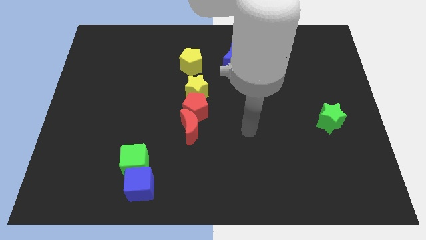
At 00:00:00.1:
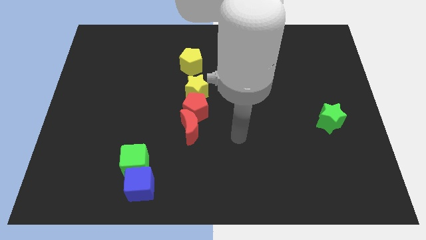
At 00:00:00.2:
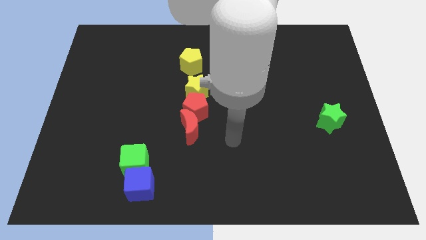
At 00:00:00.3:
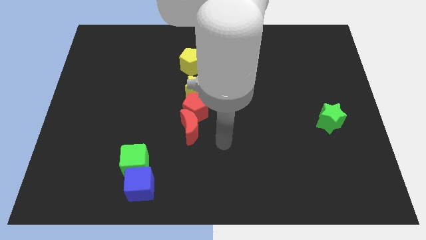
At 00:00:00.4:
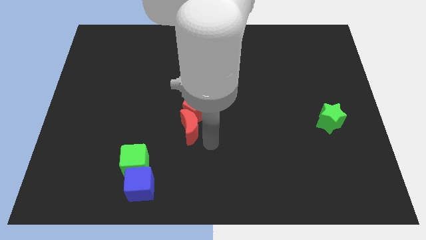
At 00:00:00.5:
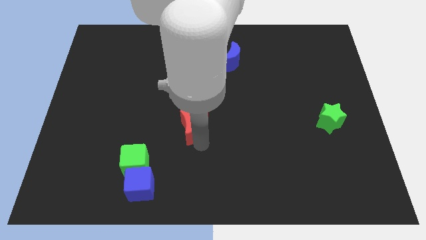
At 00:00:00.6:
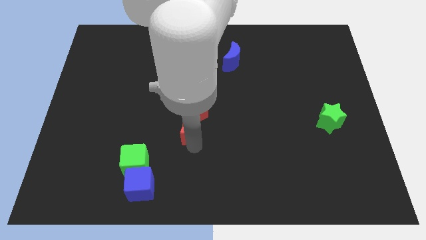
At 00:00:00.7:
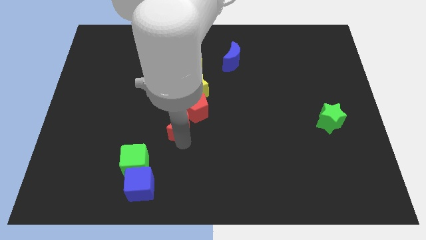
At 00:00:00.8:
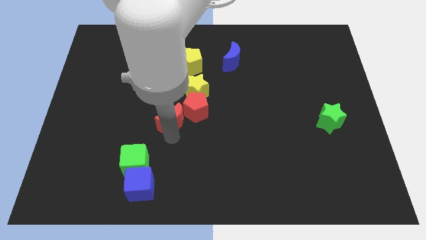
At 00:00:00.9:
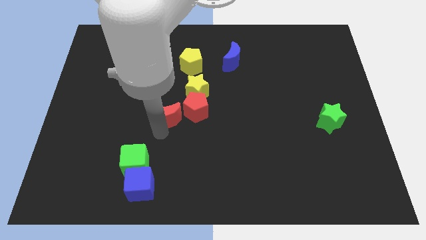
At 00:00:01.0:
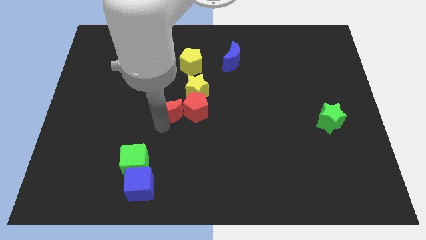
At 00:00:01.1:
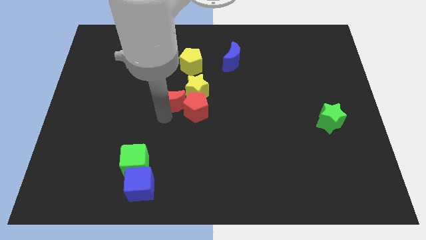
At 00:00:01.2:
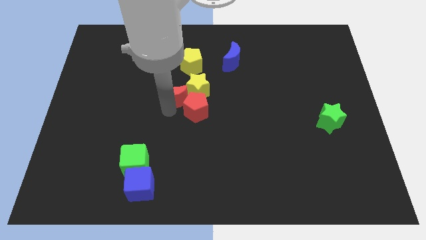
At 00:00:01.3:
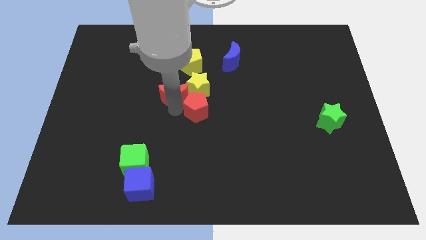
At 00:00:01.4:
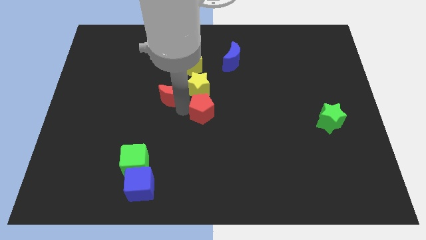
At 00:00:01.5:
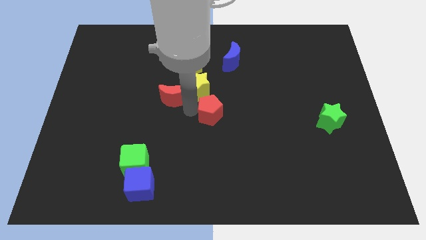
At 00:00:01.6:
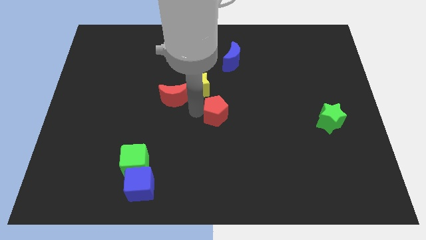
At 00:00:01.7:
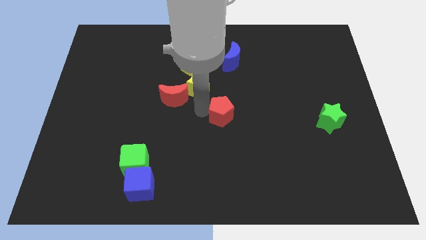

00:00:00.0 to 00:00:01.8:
separate the red pentagon from the yellow star and red moon

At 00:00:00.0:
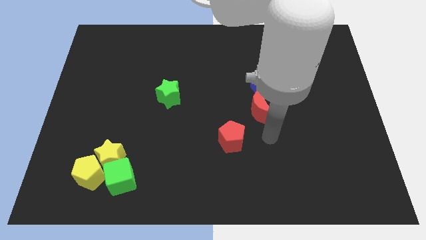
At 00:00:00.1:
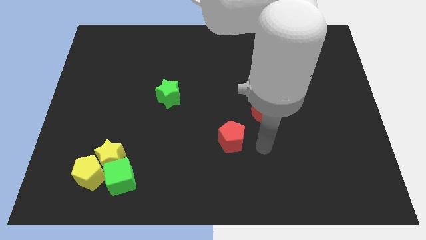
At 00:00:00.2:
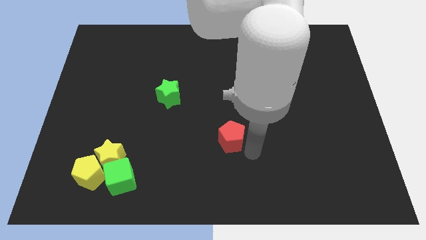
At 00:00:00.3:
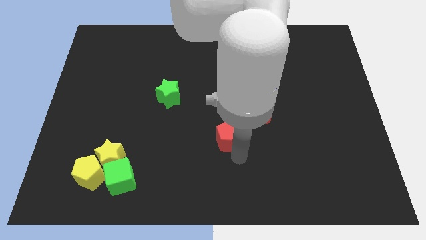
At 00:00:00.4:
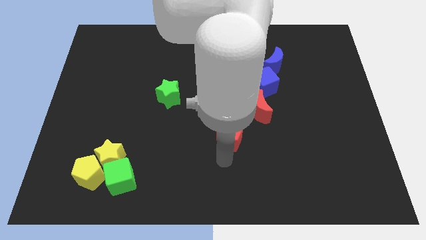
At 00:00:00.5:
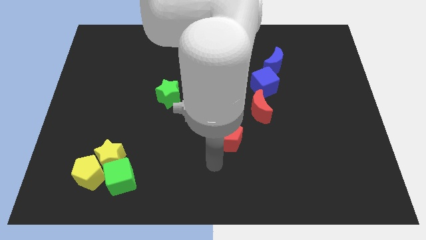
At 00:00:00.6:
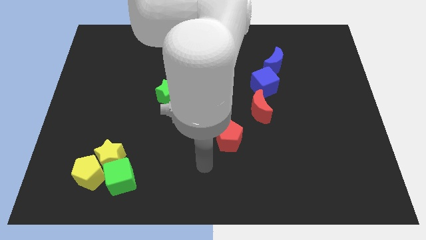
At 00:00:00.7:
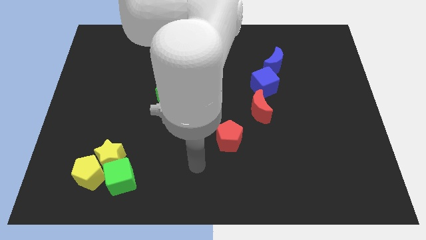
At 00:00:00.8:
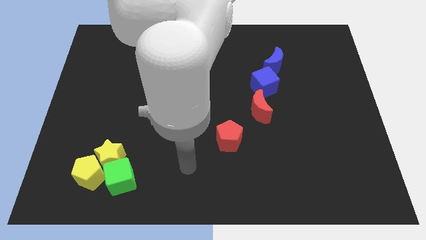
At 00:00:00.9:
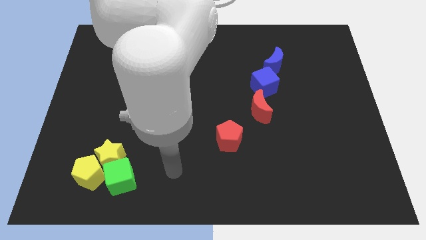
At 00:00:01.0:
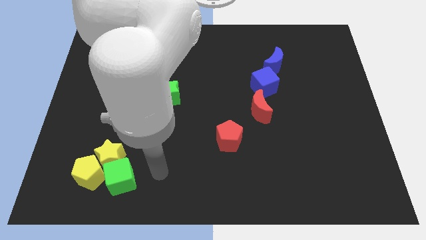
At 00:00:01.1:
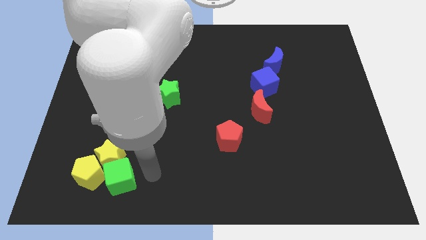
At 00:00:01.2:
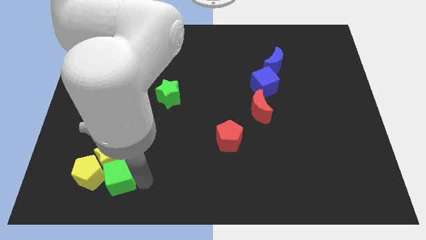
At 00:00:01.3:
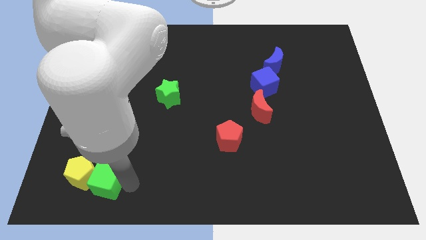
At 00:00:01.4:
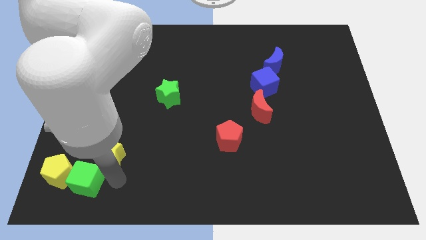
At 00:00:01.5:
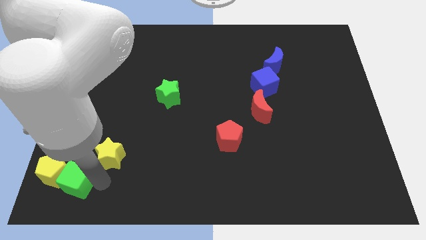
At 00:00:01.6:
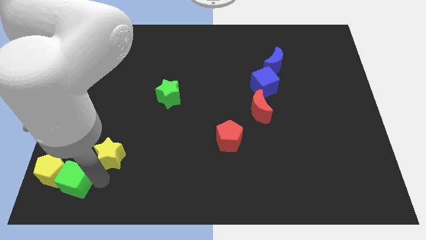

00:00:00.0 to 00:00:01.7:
separate the yellow star from the yellow pentagon and green cube

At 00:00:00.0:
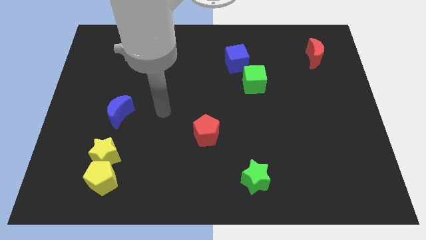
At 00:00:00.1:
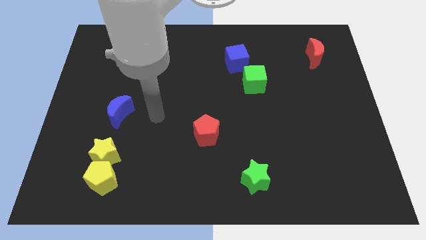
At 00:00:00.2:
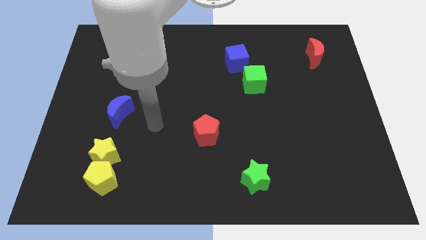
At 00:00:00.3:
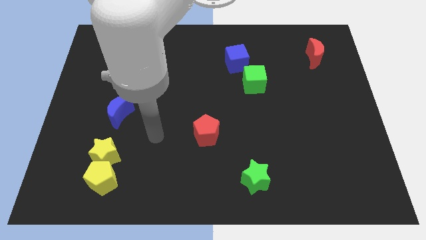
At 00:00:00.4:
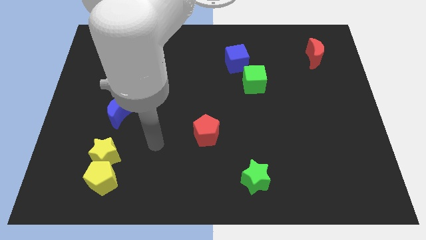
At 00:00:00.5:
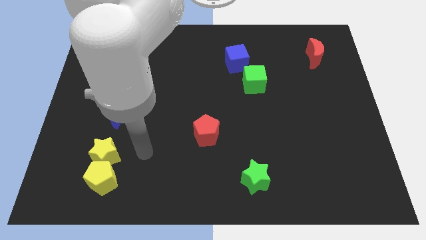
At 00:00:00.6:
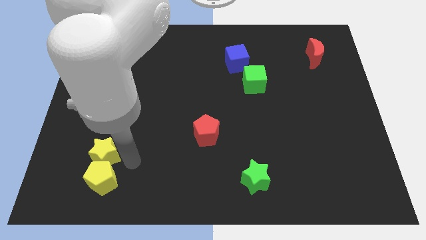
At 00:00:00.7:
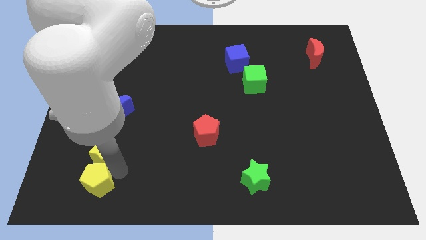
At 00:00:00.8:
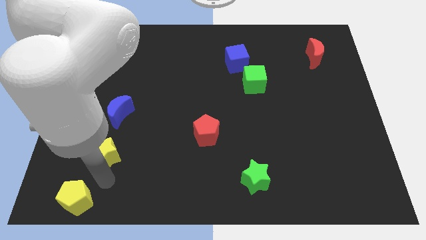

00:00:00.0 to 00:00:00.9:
pull the yellow star apart from the yellow pentagon

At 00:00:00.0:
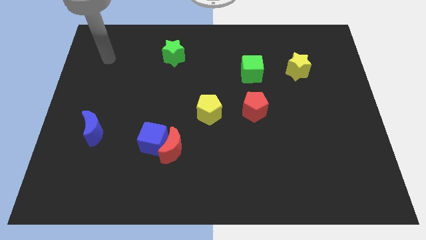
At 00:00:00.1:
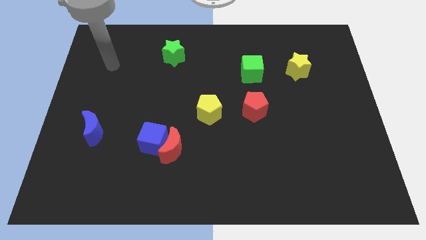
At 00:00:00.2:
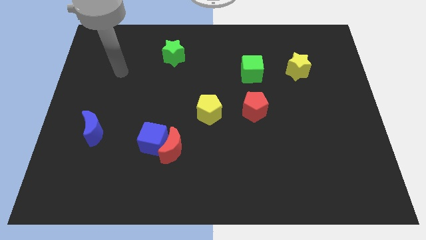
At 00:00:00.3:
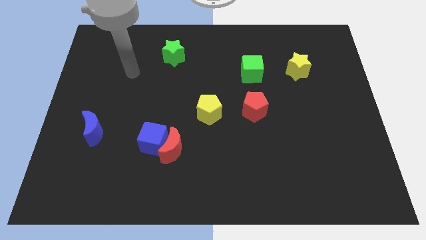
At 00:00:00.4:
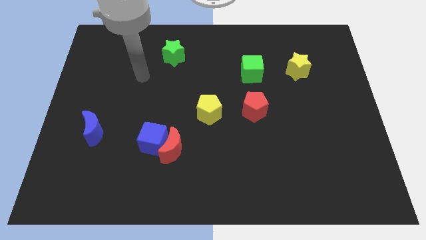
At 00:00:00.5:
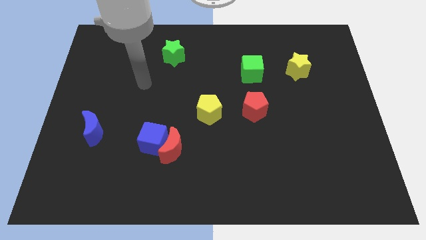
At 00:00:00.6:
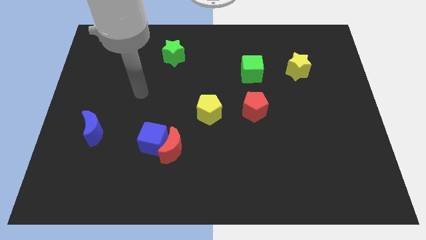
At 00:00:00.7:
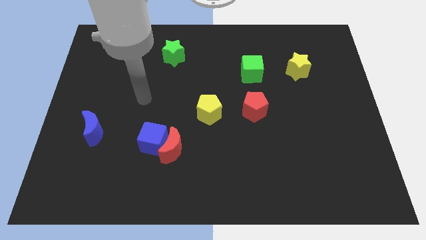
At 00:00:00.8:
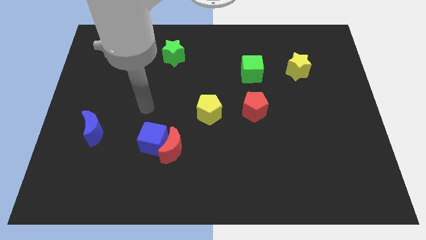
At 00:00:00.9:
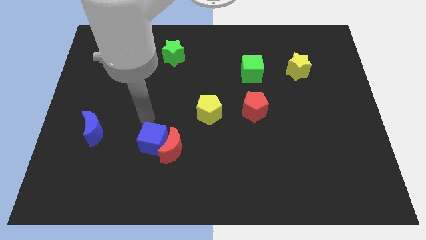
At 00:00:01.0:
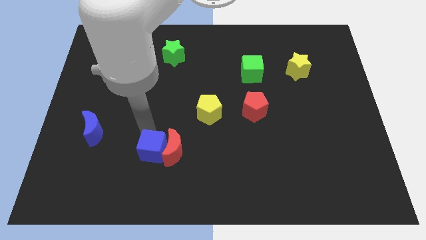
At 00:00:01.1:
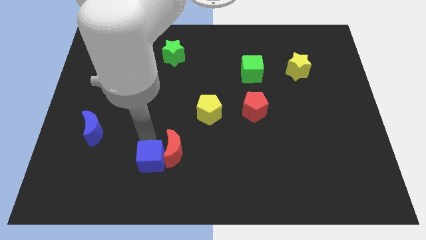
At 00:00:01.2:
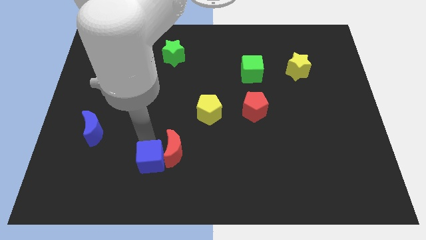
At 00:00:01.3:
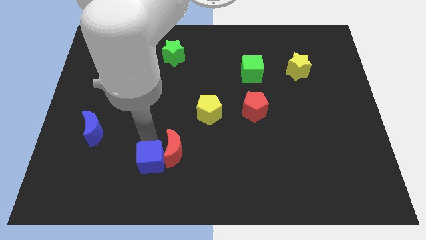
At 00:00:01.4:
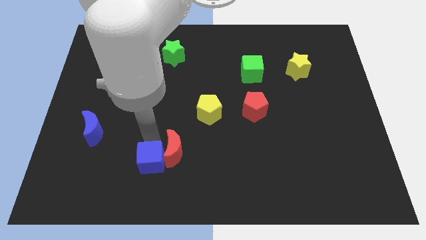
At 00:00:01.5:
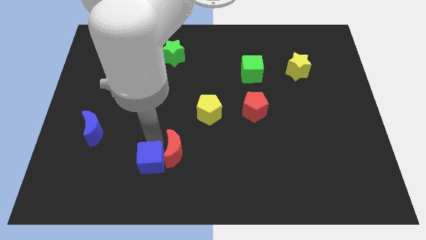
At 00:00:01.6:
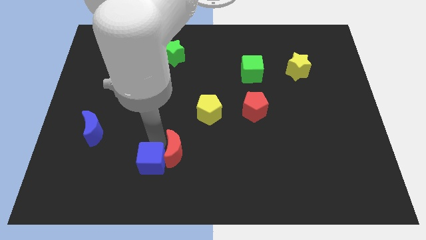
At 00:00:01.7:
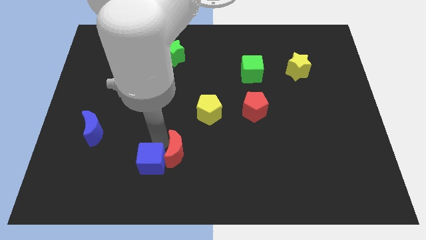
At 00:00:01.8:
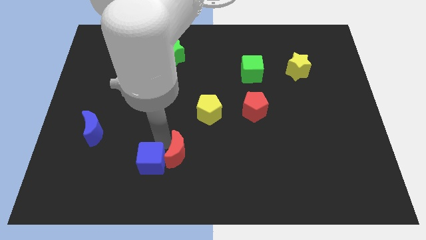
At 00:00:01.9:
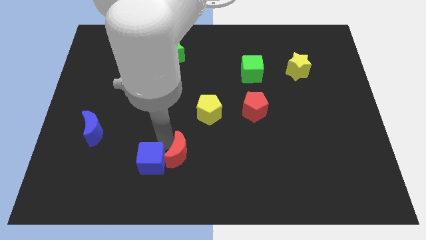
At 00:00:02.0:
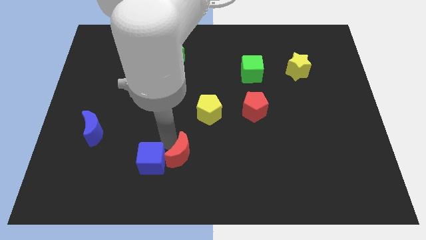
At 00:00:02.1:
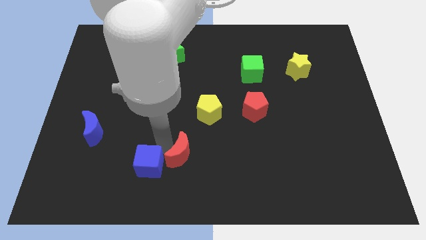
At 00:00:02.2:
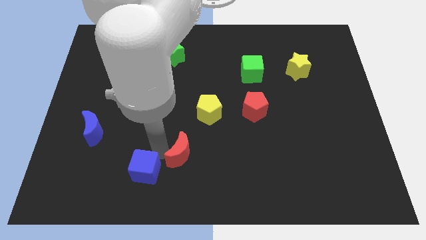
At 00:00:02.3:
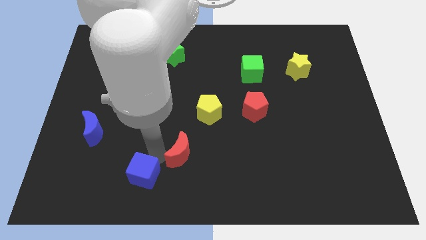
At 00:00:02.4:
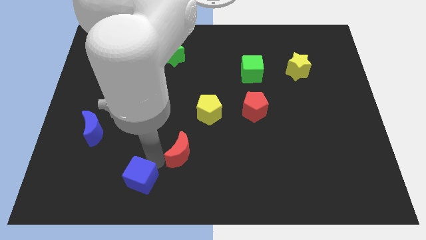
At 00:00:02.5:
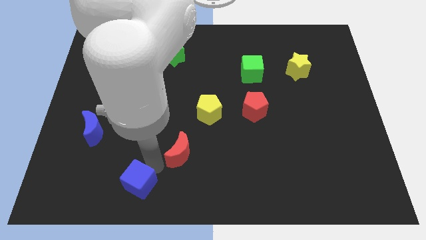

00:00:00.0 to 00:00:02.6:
pull the red moon apart from the blue cube

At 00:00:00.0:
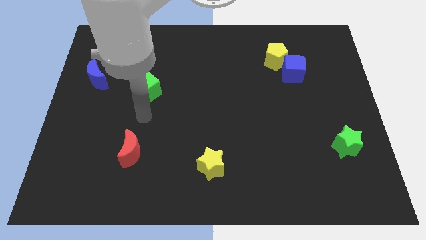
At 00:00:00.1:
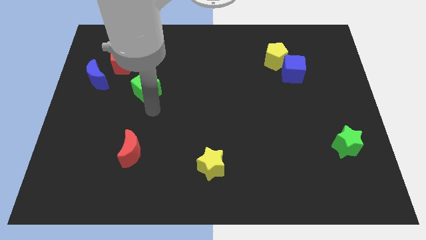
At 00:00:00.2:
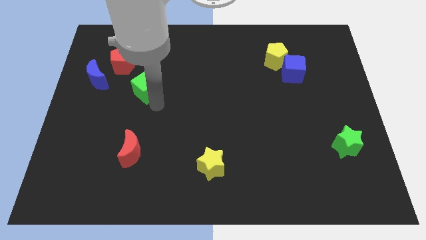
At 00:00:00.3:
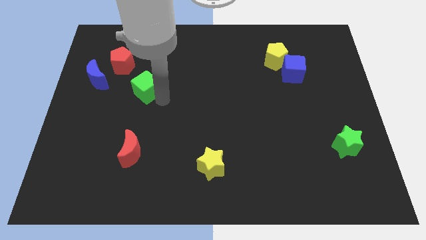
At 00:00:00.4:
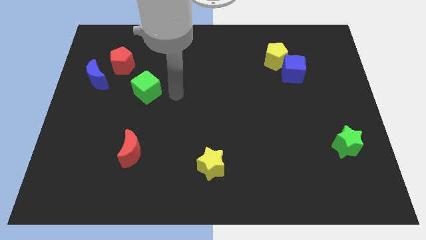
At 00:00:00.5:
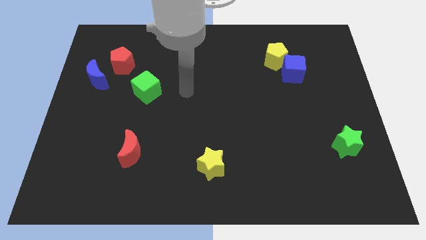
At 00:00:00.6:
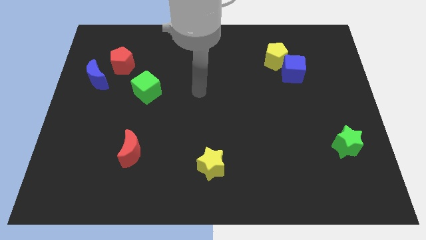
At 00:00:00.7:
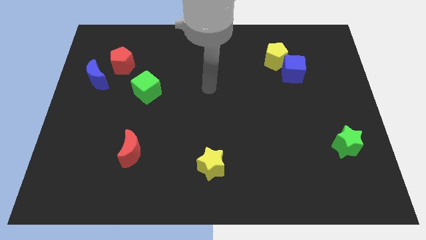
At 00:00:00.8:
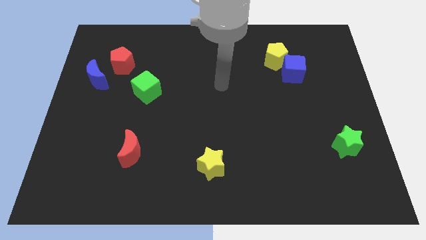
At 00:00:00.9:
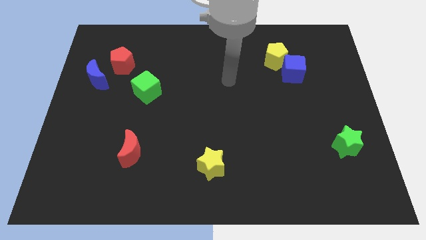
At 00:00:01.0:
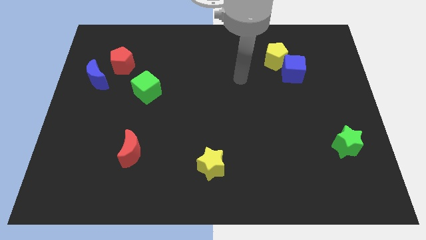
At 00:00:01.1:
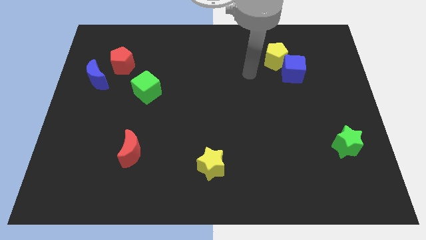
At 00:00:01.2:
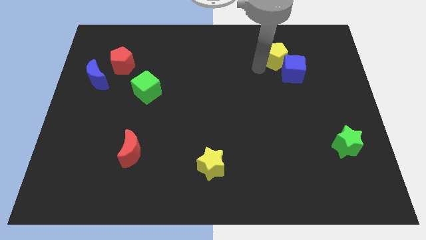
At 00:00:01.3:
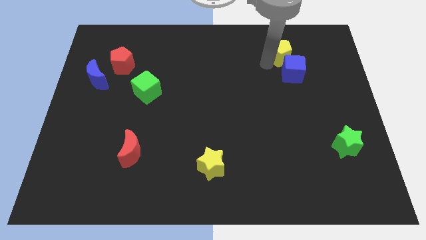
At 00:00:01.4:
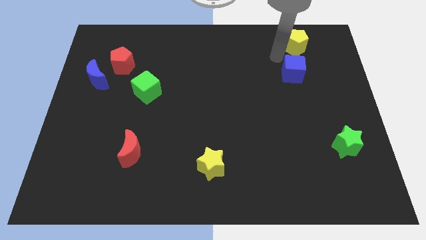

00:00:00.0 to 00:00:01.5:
pull the blue cube apart from the yellow pentagon

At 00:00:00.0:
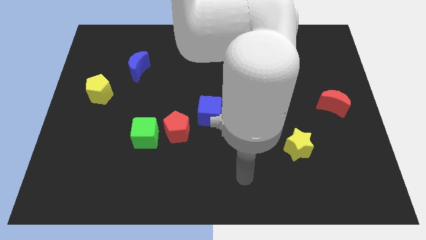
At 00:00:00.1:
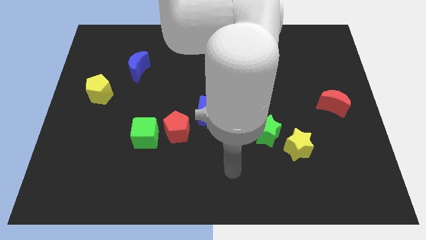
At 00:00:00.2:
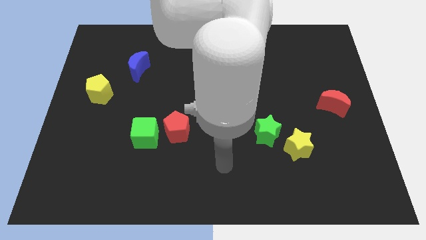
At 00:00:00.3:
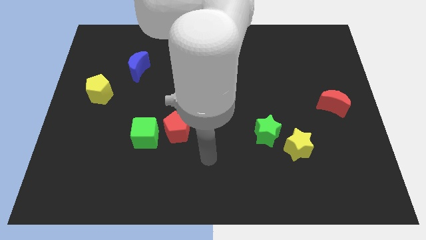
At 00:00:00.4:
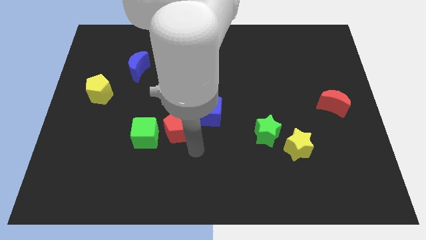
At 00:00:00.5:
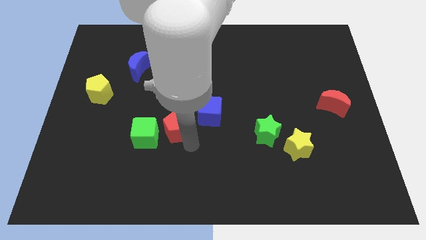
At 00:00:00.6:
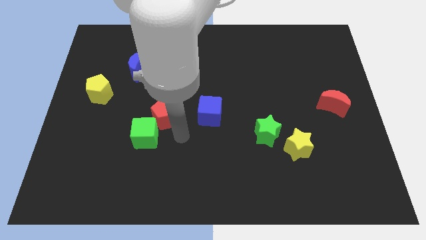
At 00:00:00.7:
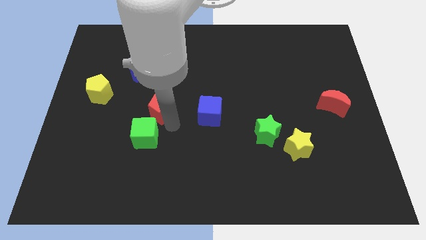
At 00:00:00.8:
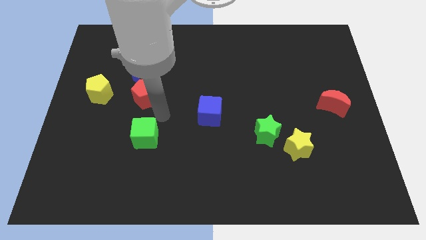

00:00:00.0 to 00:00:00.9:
move the green cube away from the red pentagon
